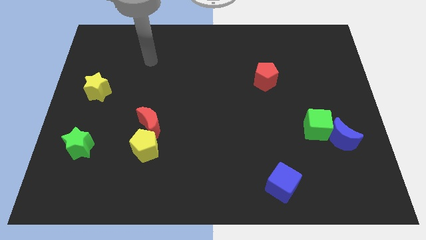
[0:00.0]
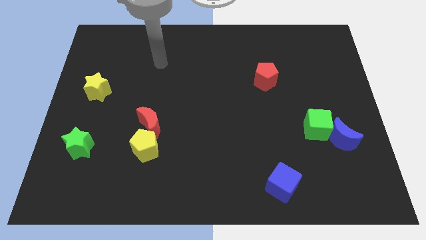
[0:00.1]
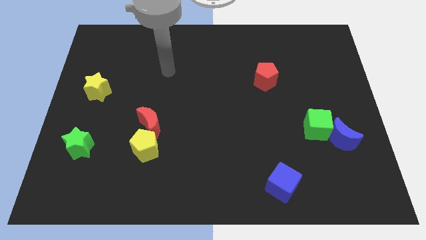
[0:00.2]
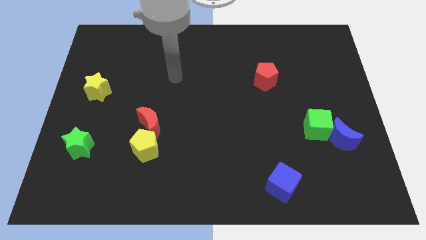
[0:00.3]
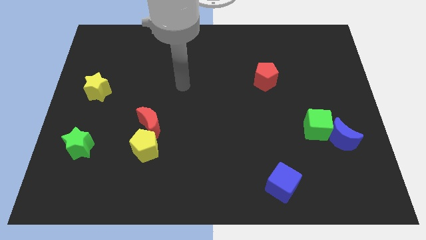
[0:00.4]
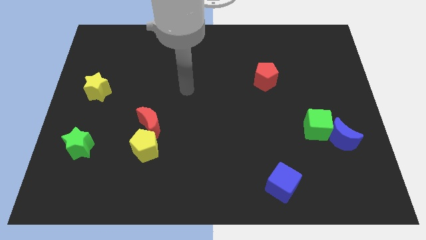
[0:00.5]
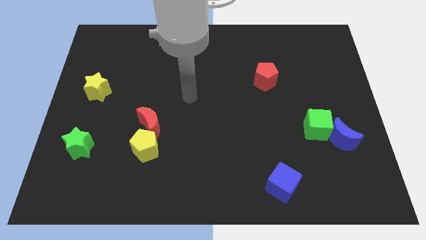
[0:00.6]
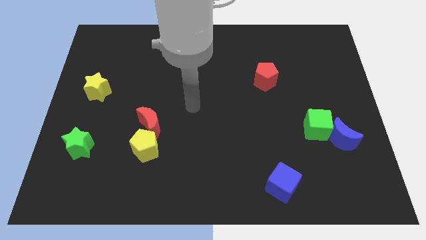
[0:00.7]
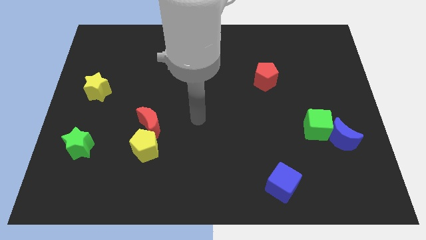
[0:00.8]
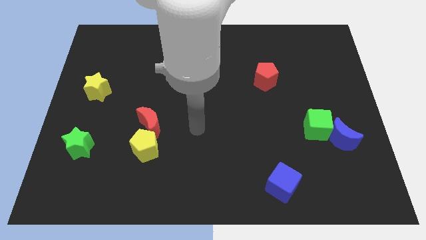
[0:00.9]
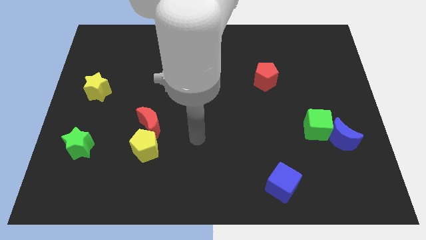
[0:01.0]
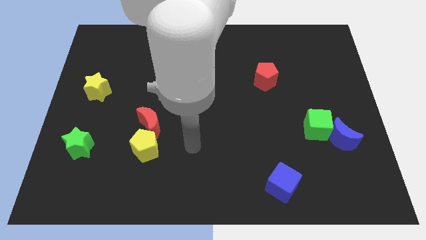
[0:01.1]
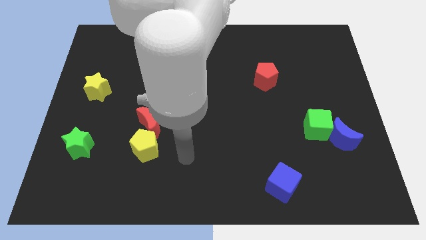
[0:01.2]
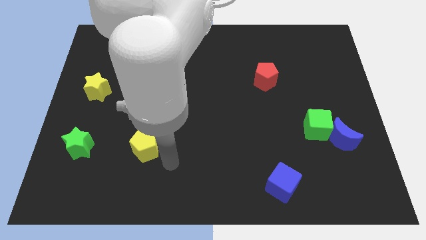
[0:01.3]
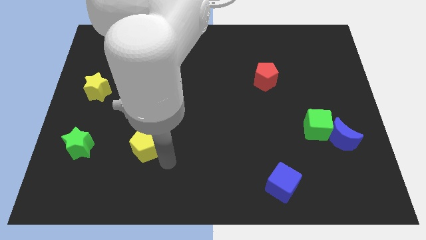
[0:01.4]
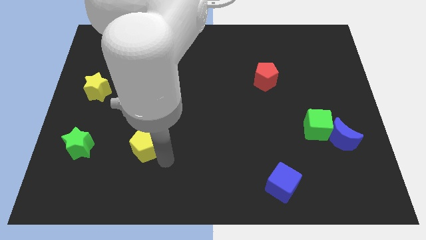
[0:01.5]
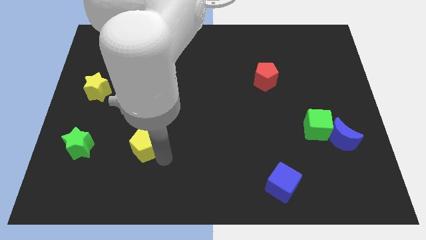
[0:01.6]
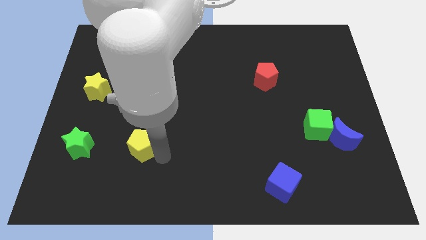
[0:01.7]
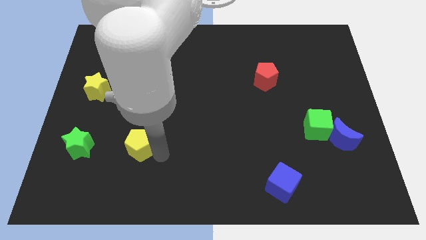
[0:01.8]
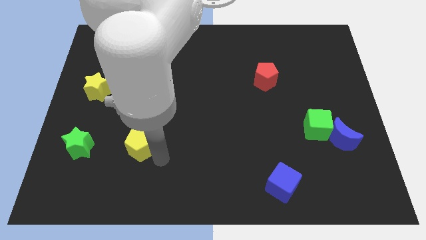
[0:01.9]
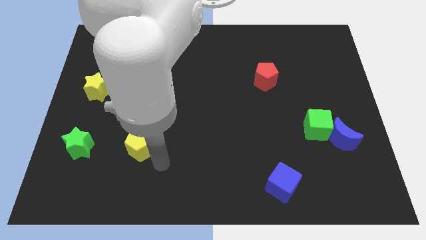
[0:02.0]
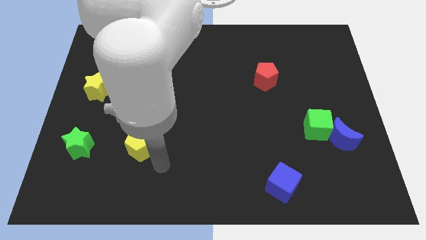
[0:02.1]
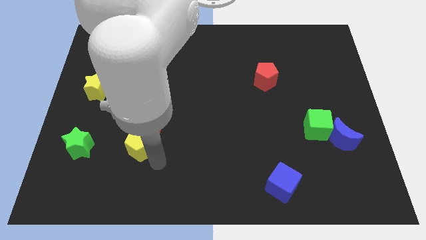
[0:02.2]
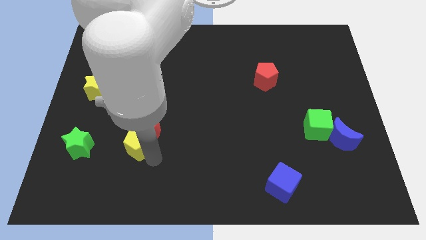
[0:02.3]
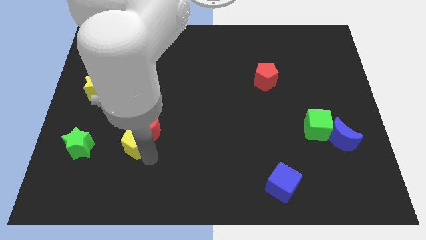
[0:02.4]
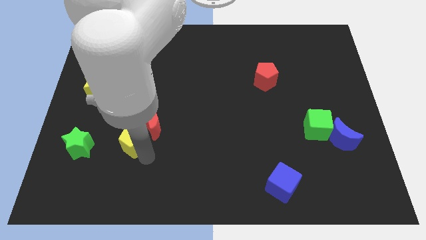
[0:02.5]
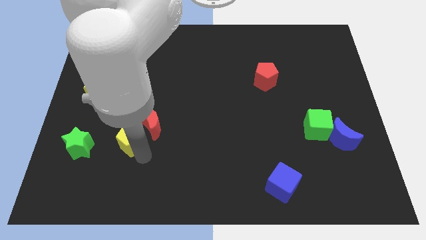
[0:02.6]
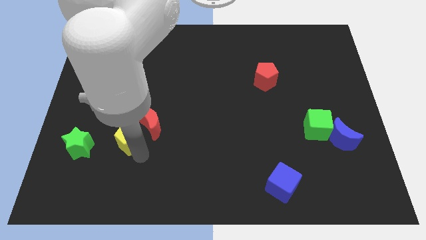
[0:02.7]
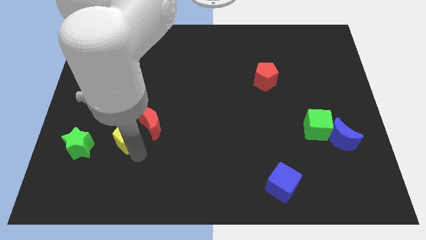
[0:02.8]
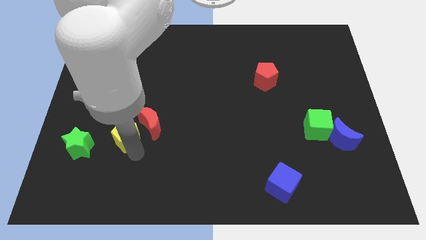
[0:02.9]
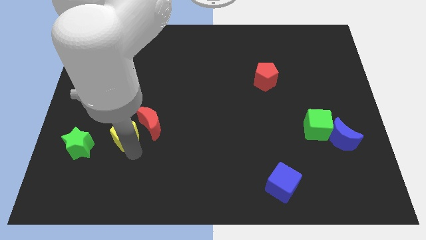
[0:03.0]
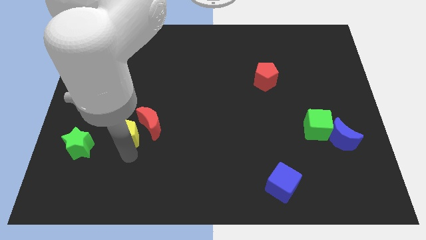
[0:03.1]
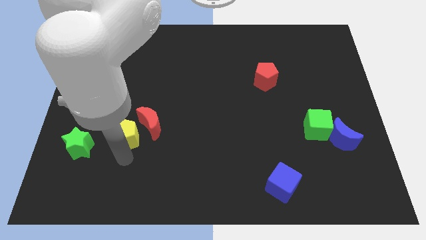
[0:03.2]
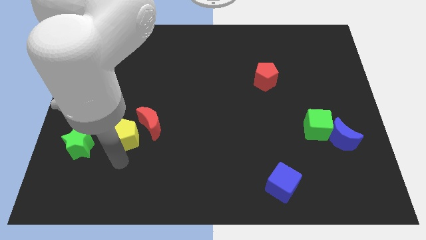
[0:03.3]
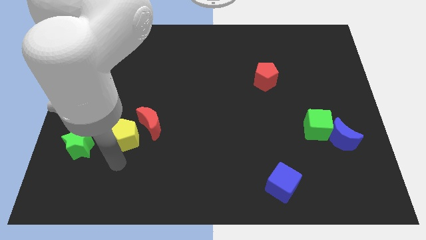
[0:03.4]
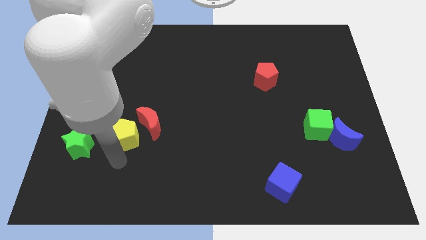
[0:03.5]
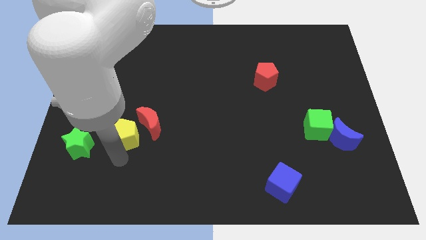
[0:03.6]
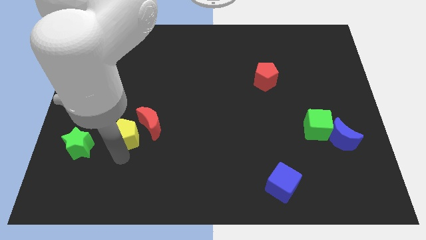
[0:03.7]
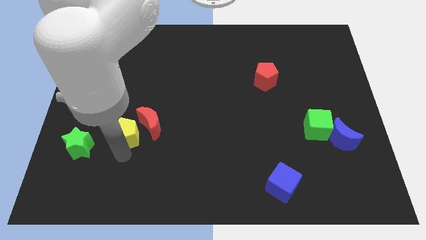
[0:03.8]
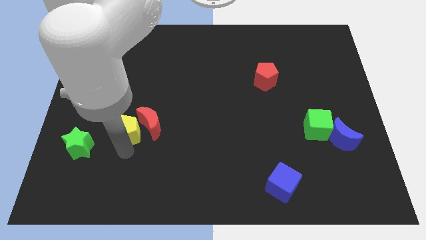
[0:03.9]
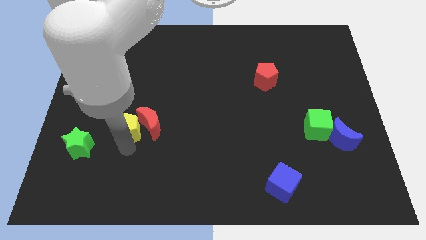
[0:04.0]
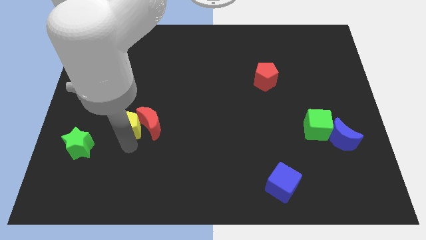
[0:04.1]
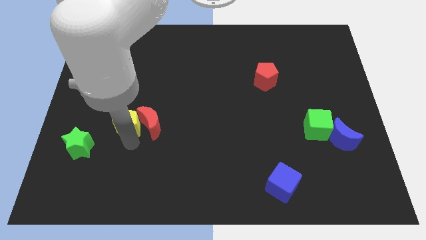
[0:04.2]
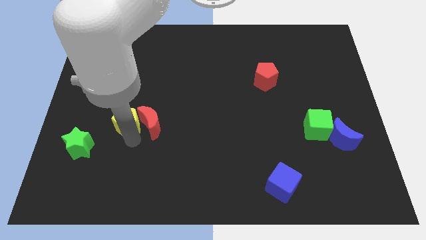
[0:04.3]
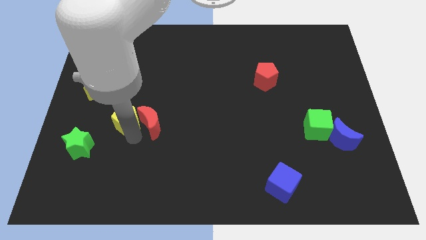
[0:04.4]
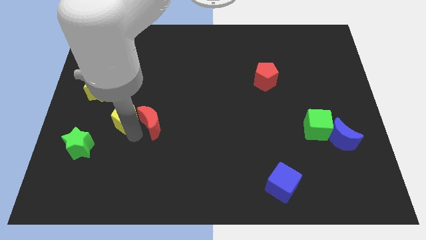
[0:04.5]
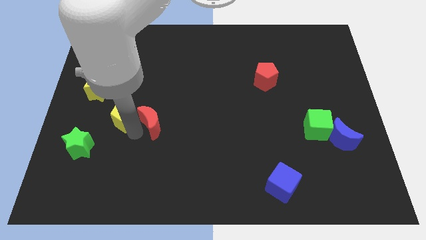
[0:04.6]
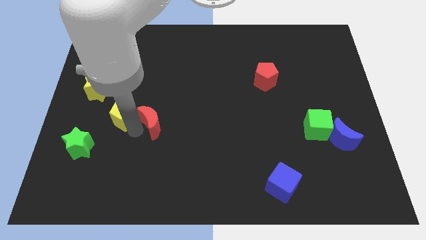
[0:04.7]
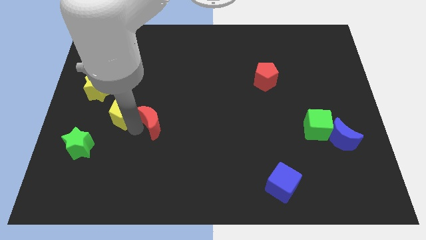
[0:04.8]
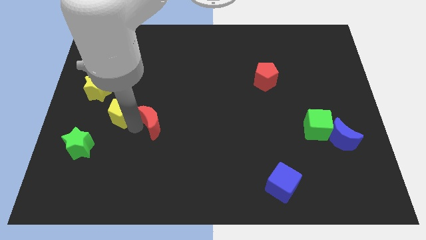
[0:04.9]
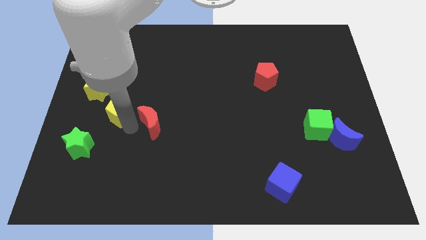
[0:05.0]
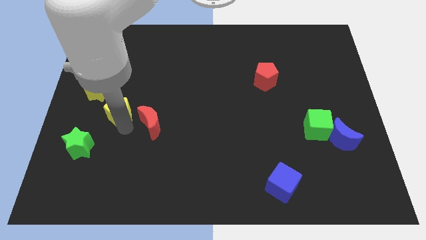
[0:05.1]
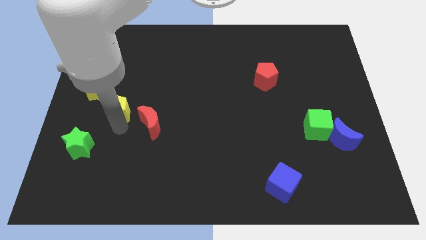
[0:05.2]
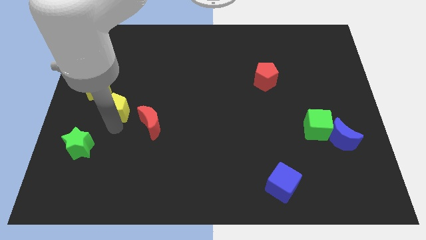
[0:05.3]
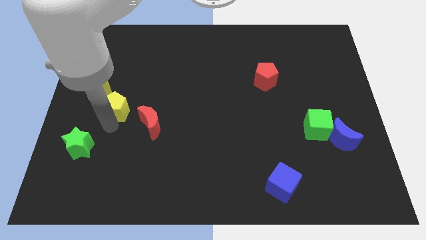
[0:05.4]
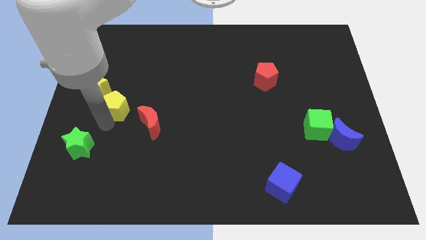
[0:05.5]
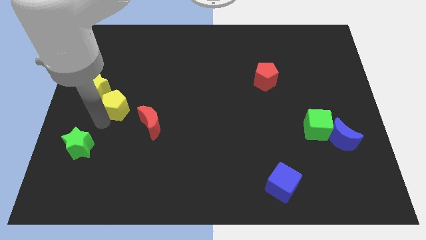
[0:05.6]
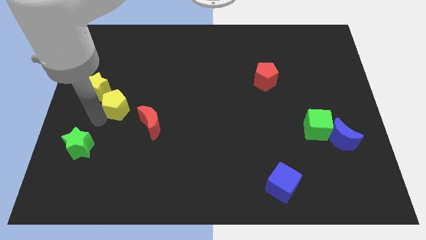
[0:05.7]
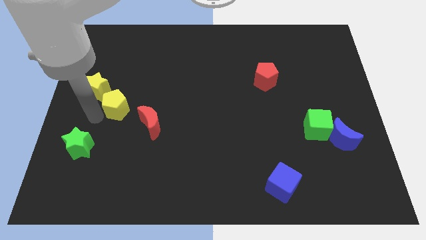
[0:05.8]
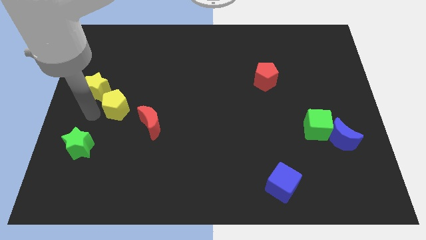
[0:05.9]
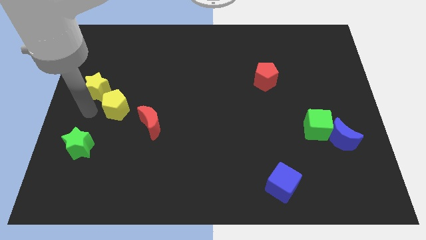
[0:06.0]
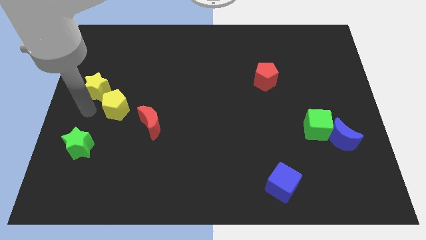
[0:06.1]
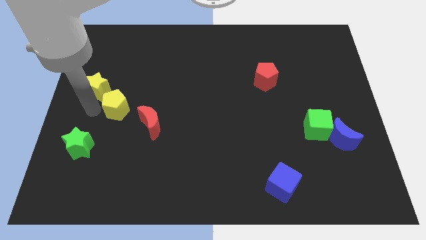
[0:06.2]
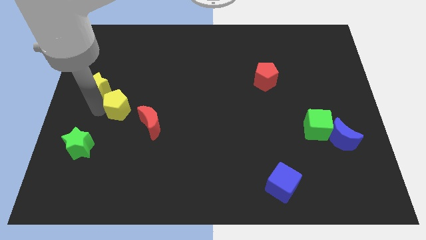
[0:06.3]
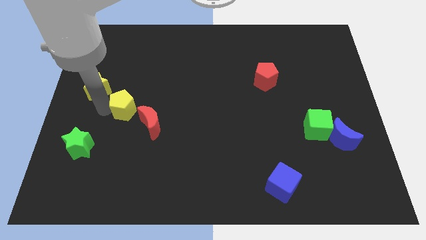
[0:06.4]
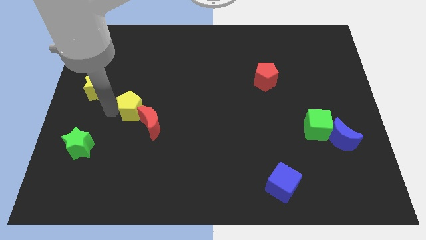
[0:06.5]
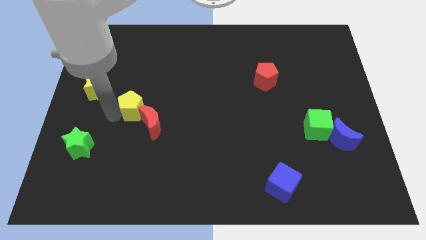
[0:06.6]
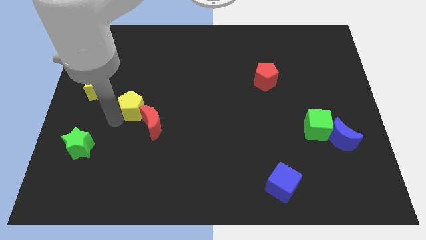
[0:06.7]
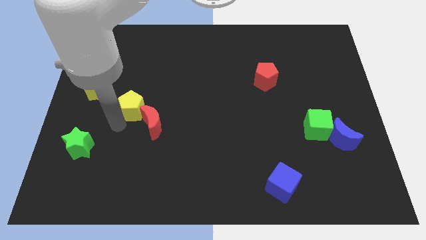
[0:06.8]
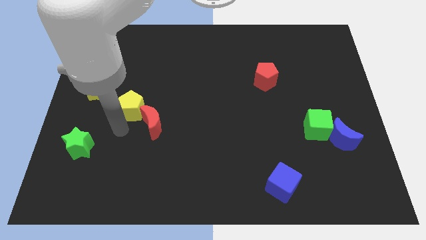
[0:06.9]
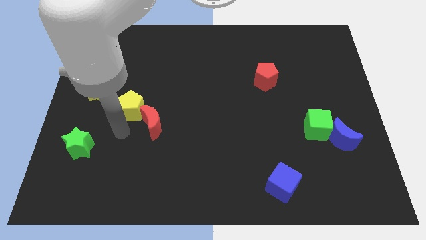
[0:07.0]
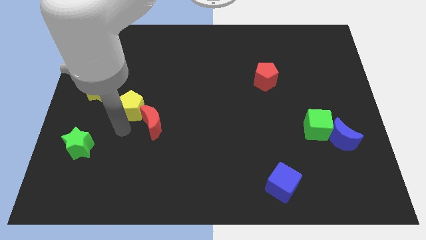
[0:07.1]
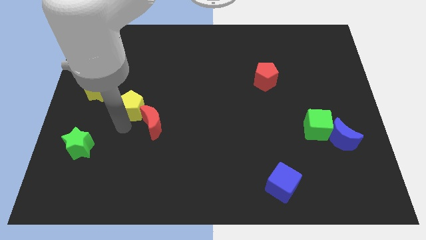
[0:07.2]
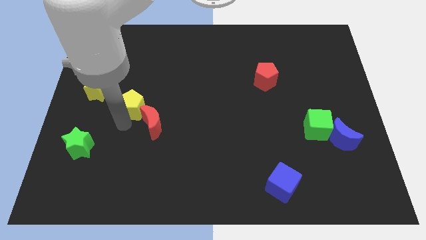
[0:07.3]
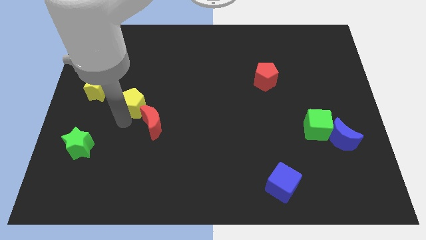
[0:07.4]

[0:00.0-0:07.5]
move the yellow pentagon to the right side of the yellow star
